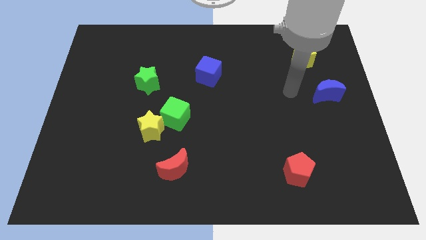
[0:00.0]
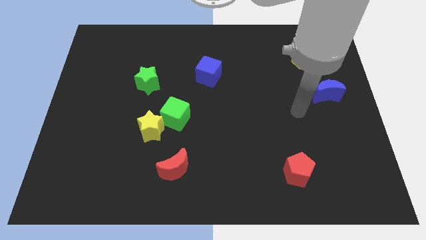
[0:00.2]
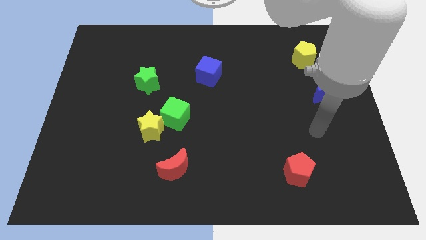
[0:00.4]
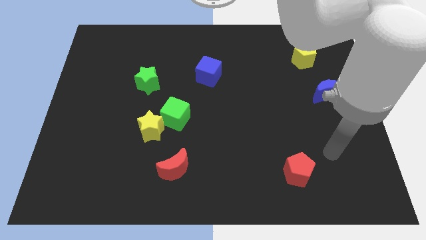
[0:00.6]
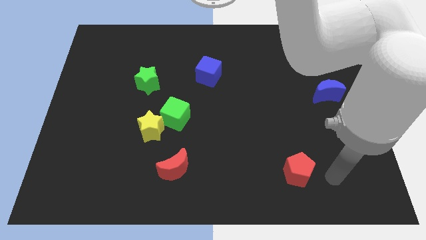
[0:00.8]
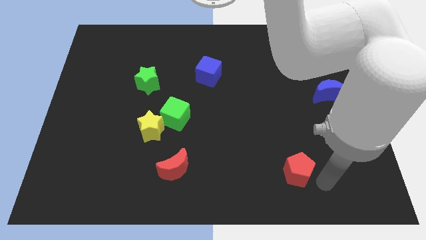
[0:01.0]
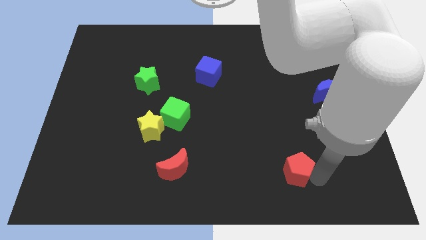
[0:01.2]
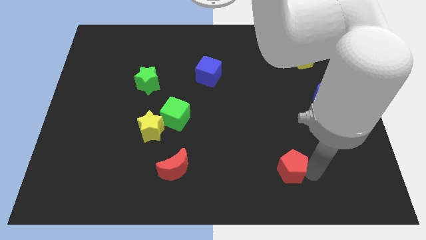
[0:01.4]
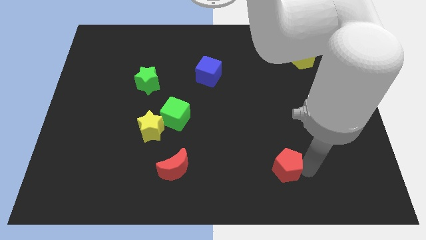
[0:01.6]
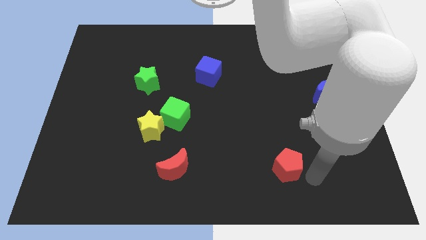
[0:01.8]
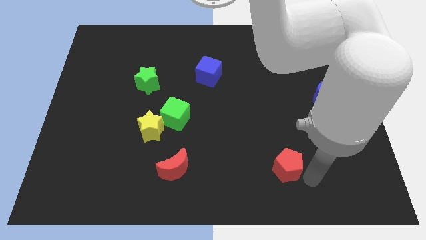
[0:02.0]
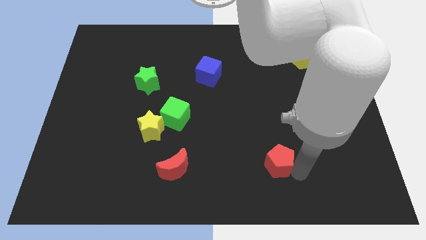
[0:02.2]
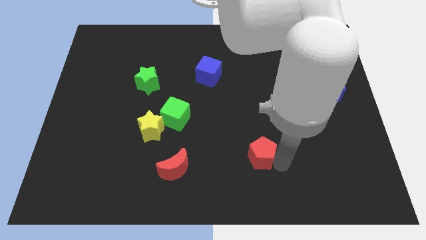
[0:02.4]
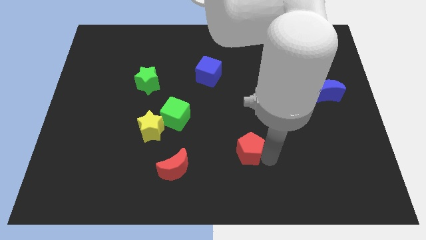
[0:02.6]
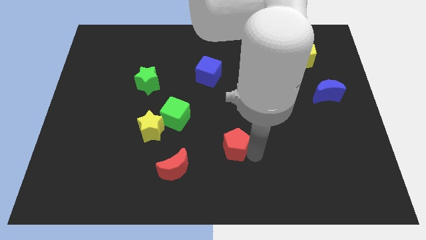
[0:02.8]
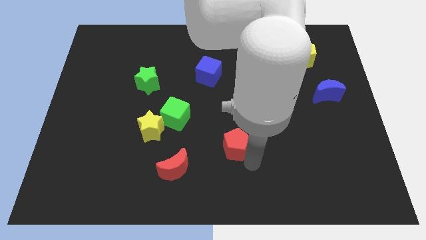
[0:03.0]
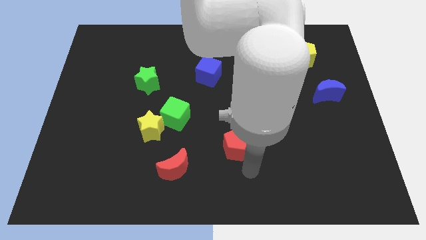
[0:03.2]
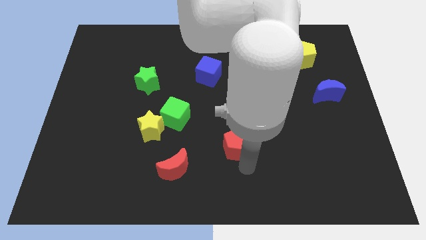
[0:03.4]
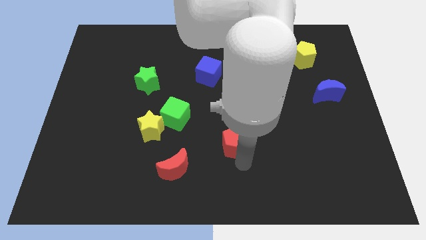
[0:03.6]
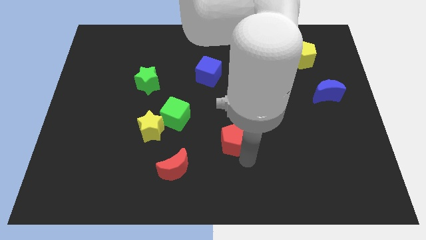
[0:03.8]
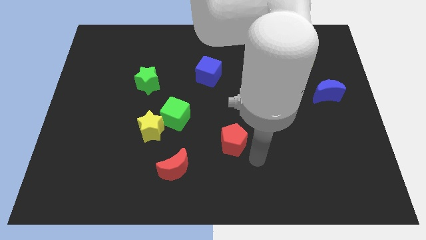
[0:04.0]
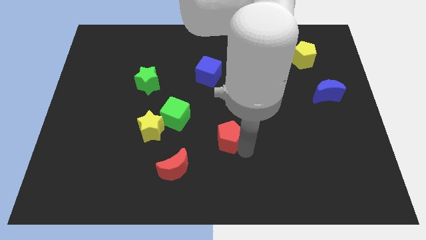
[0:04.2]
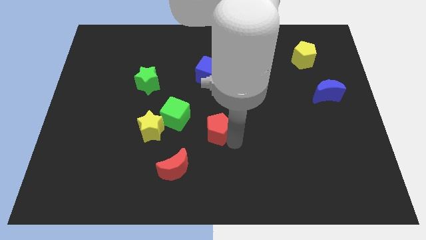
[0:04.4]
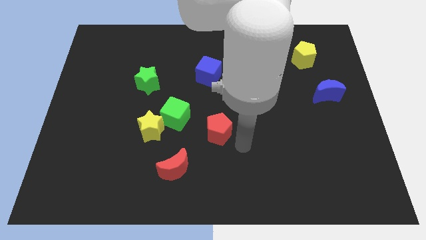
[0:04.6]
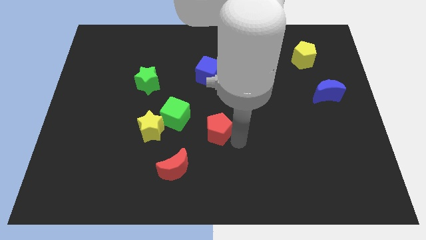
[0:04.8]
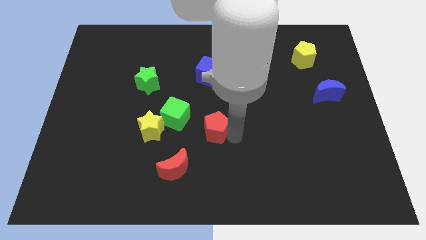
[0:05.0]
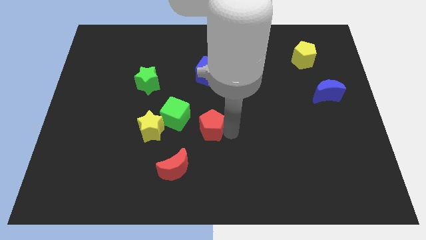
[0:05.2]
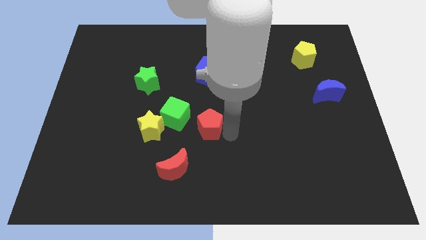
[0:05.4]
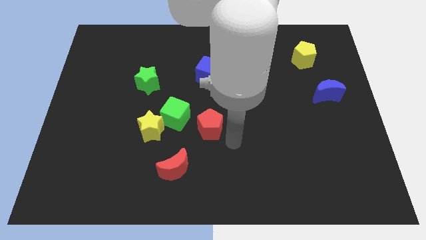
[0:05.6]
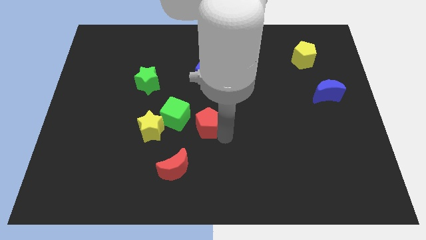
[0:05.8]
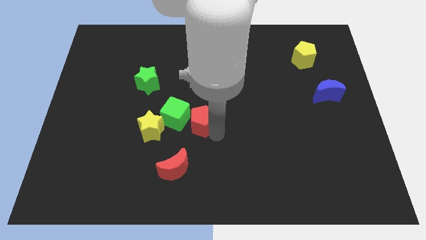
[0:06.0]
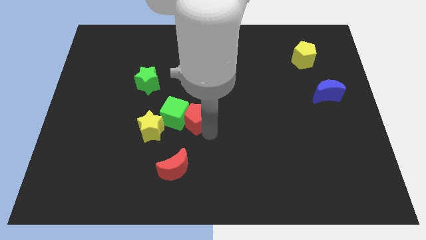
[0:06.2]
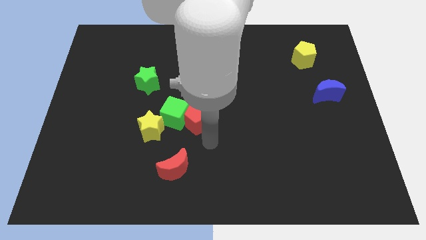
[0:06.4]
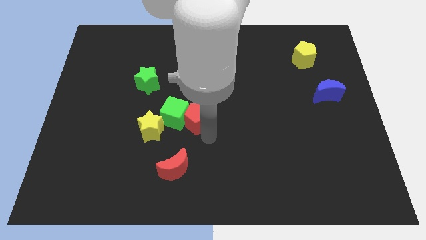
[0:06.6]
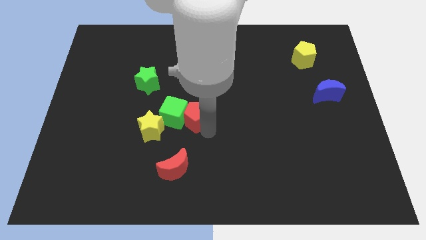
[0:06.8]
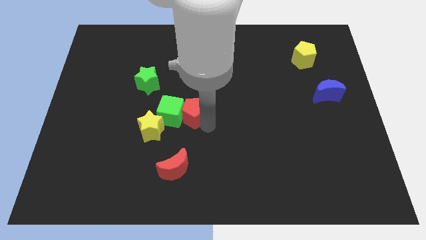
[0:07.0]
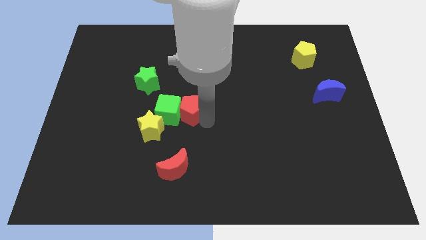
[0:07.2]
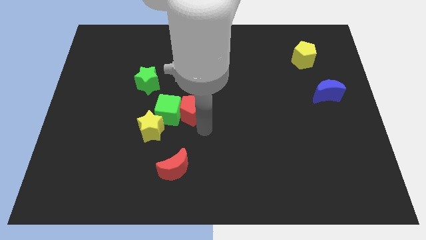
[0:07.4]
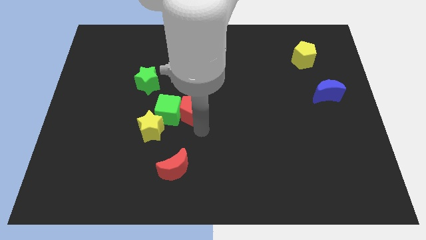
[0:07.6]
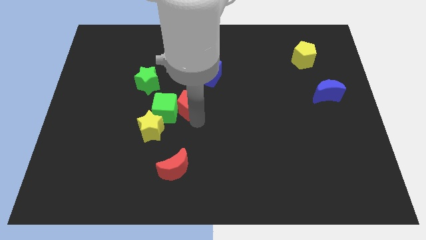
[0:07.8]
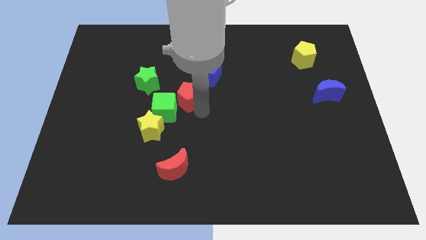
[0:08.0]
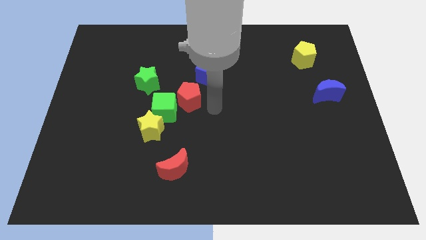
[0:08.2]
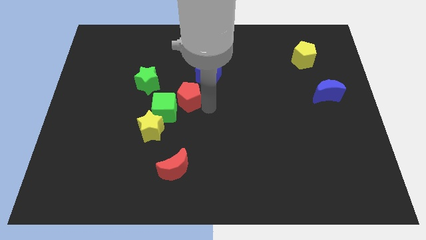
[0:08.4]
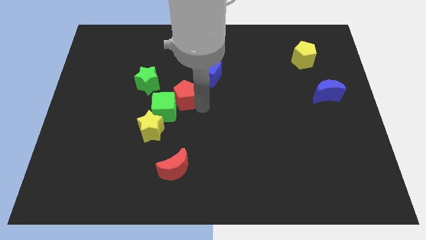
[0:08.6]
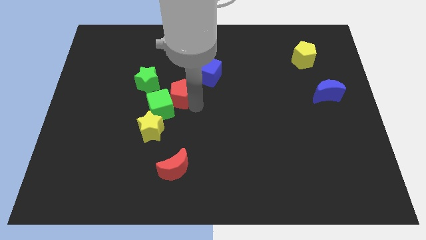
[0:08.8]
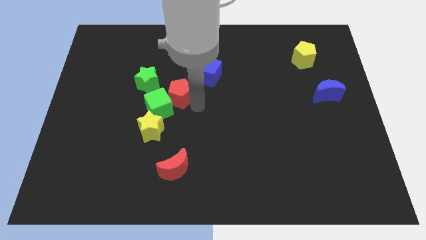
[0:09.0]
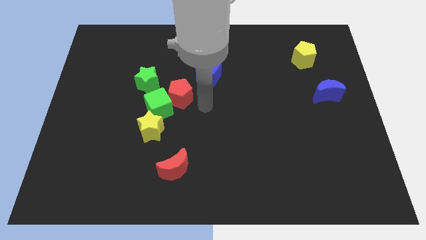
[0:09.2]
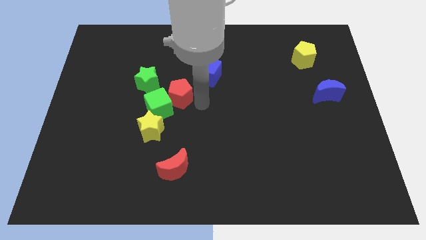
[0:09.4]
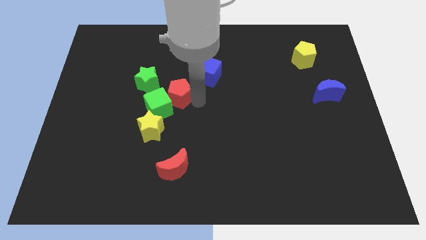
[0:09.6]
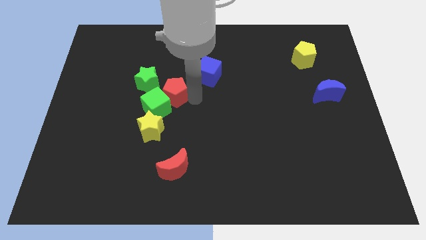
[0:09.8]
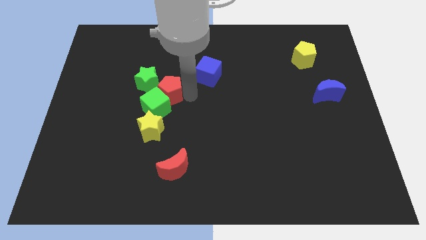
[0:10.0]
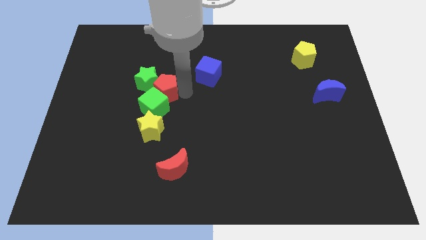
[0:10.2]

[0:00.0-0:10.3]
move the red pentagon towards the green star

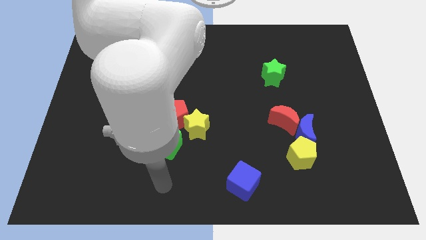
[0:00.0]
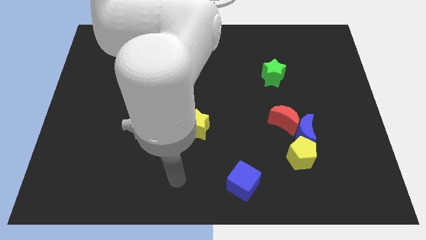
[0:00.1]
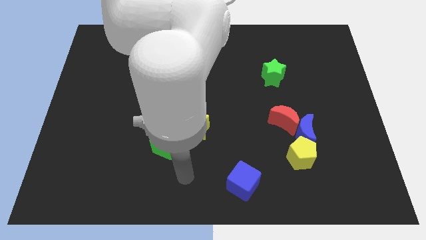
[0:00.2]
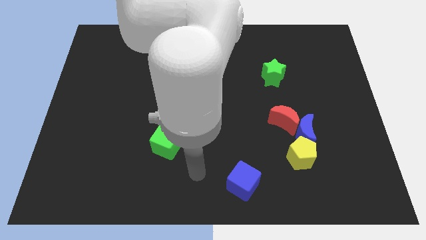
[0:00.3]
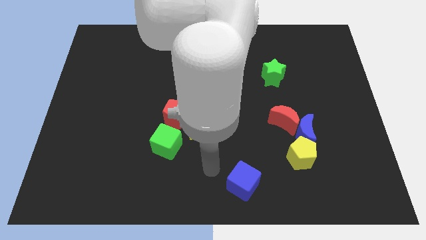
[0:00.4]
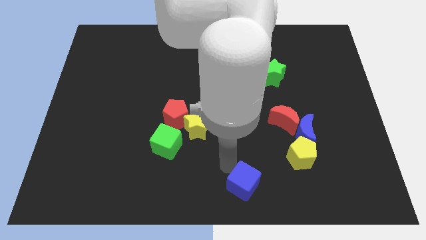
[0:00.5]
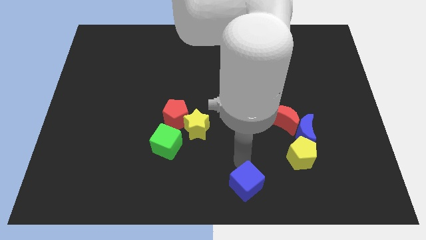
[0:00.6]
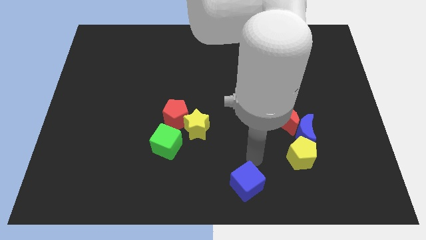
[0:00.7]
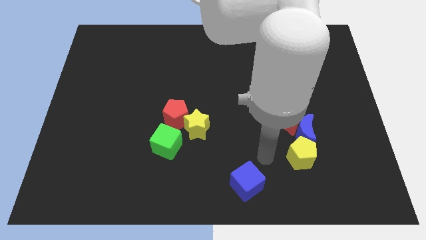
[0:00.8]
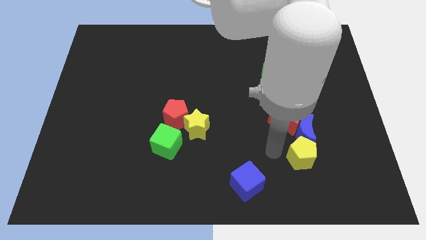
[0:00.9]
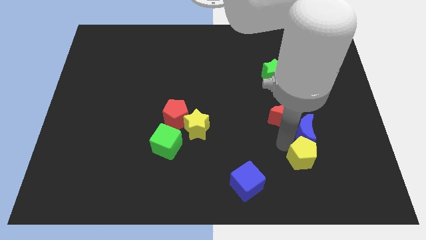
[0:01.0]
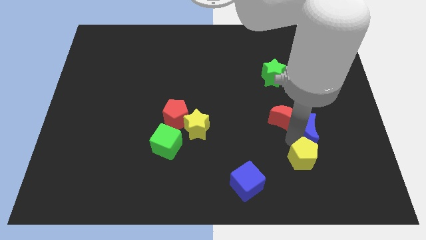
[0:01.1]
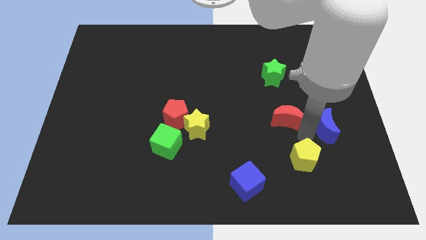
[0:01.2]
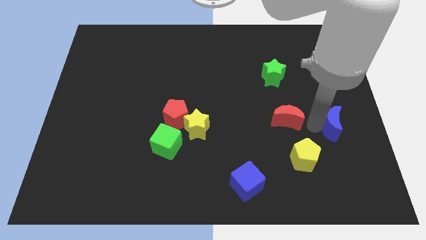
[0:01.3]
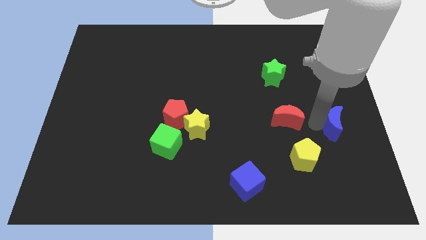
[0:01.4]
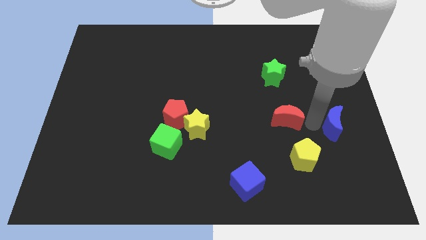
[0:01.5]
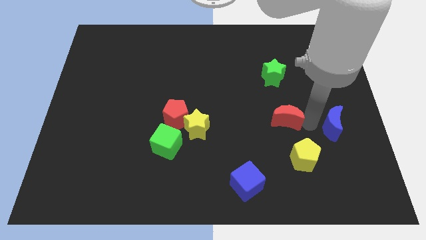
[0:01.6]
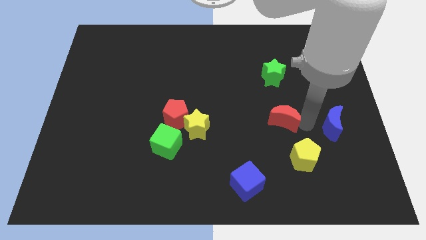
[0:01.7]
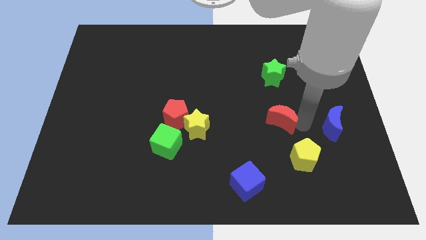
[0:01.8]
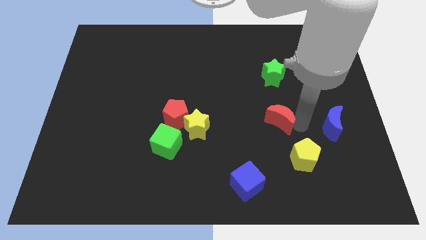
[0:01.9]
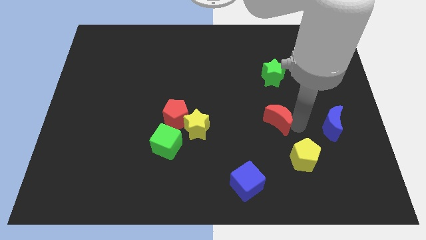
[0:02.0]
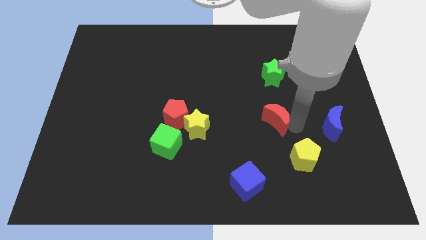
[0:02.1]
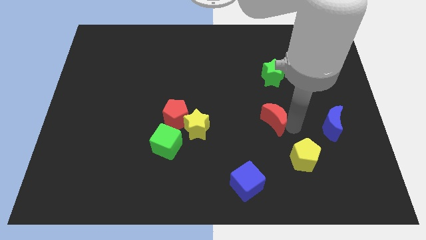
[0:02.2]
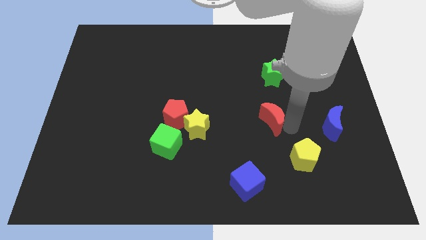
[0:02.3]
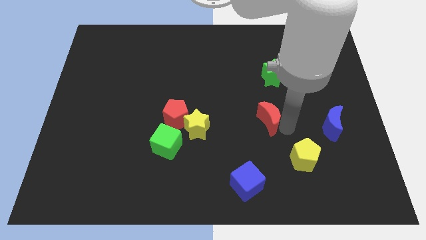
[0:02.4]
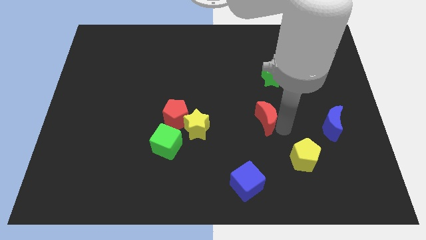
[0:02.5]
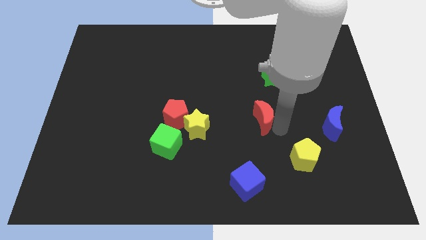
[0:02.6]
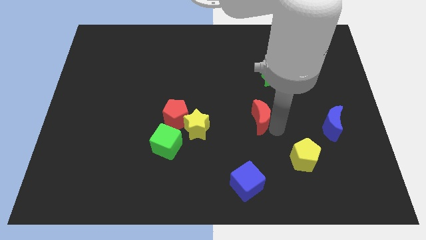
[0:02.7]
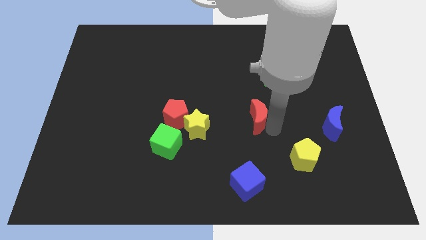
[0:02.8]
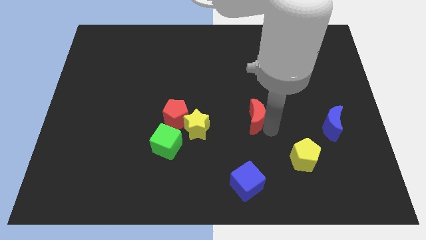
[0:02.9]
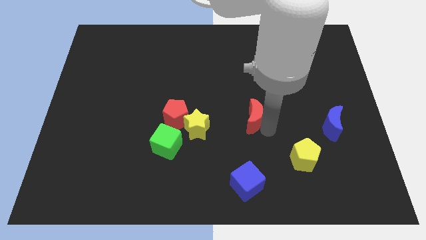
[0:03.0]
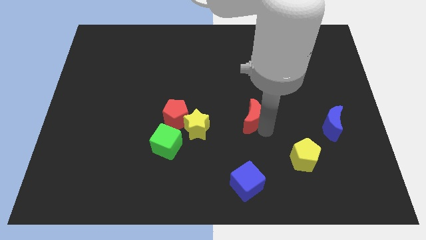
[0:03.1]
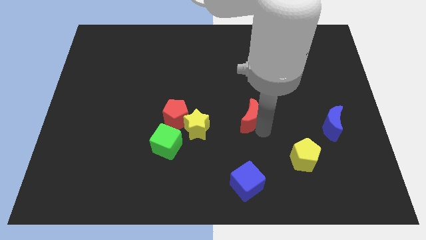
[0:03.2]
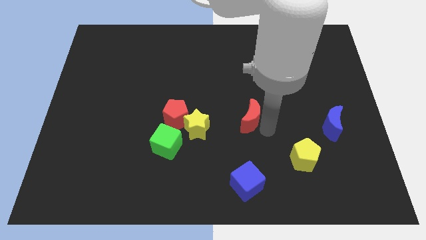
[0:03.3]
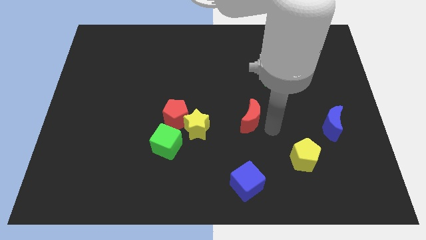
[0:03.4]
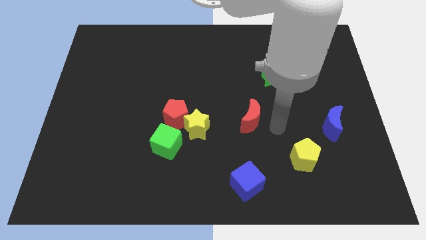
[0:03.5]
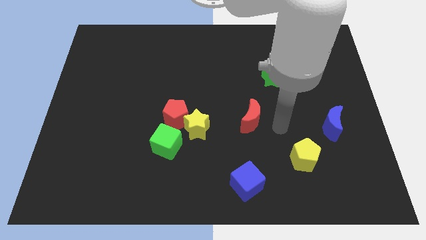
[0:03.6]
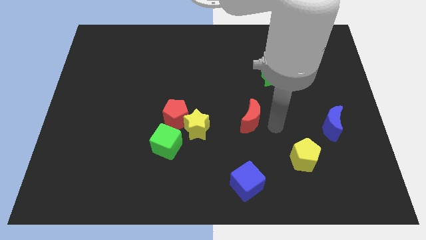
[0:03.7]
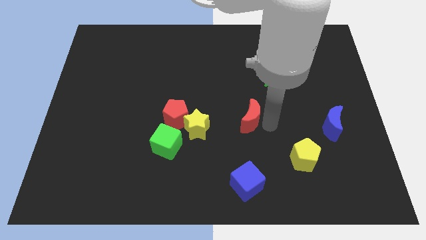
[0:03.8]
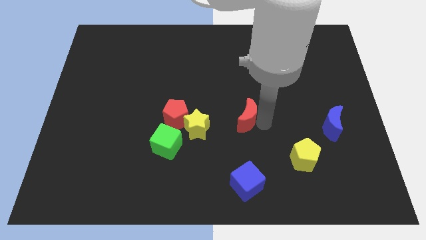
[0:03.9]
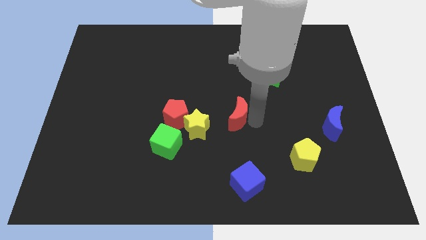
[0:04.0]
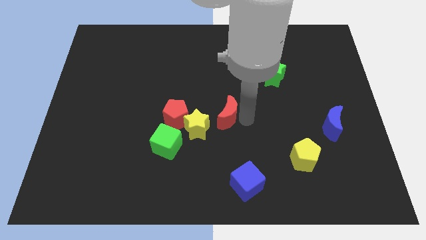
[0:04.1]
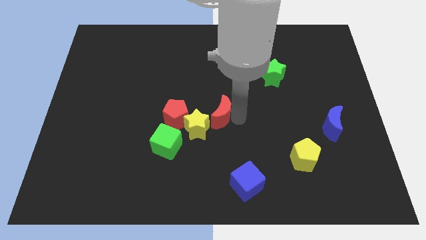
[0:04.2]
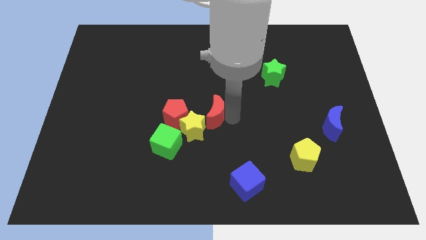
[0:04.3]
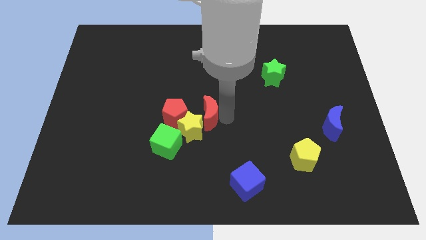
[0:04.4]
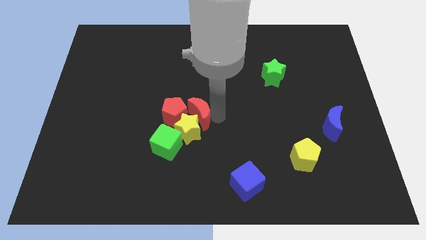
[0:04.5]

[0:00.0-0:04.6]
move the red moon close to the red pentagon
